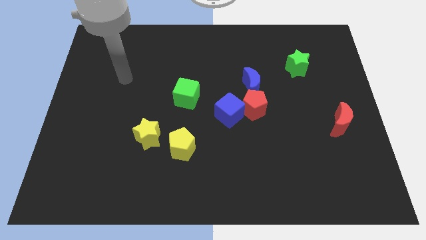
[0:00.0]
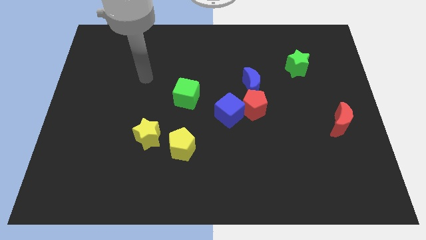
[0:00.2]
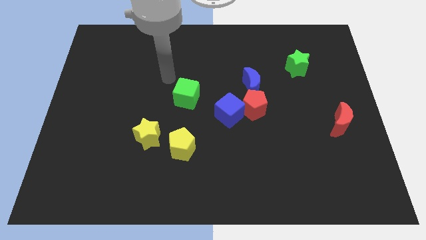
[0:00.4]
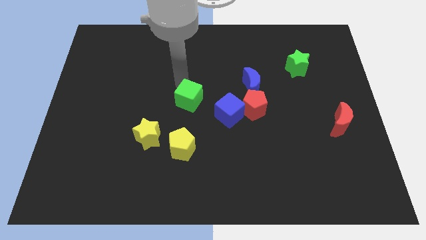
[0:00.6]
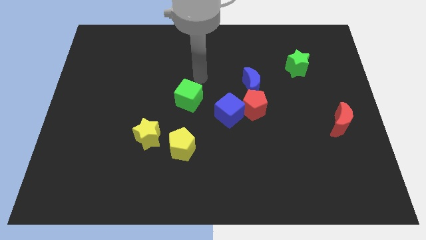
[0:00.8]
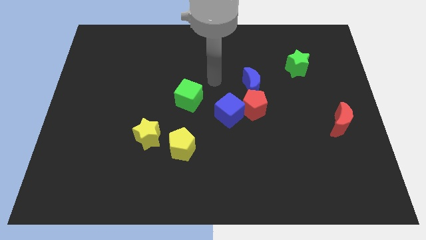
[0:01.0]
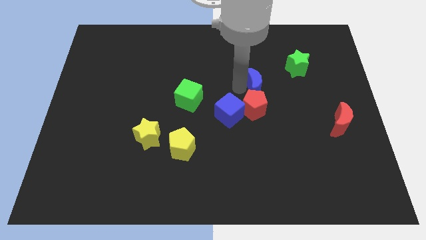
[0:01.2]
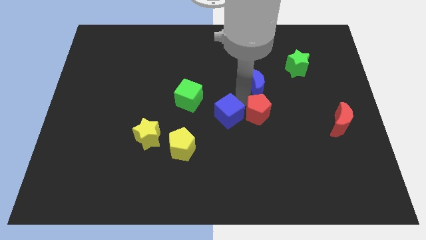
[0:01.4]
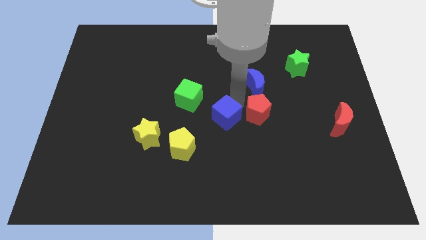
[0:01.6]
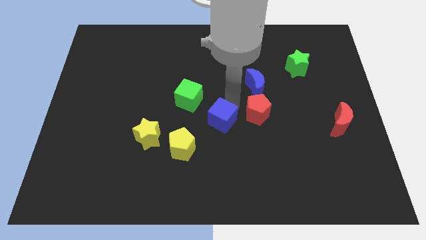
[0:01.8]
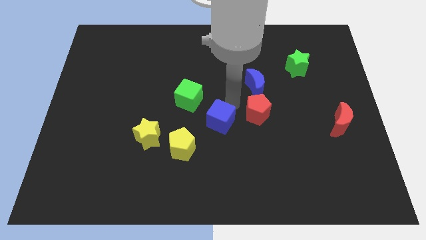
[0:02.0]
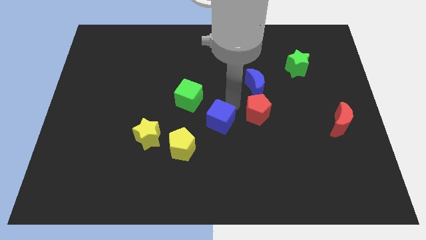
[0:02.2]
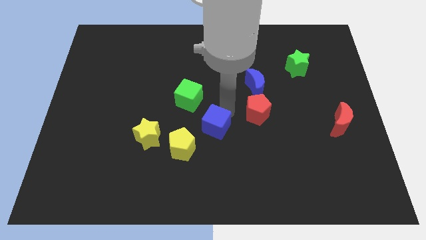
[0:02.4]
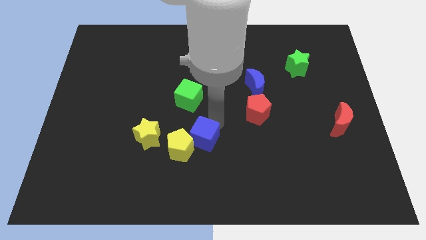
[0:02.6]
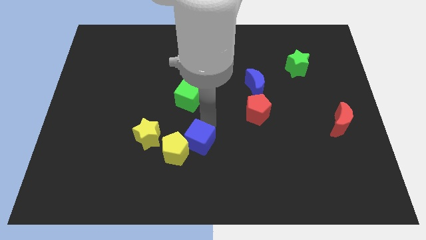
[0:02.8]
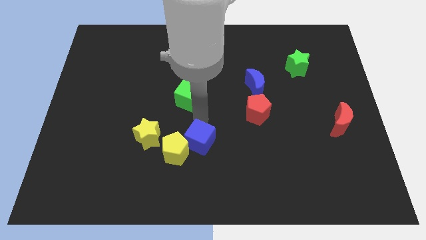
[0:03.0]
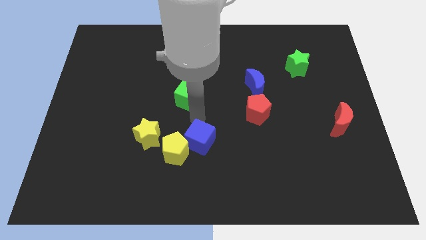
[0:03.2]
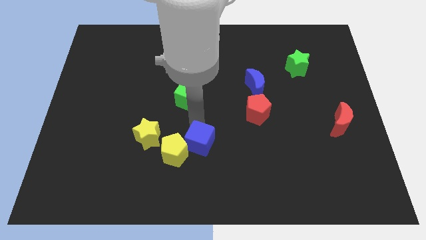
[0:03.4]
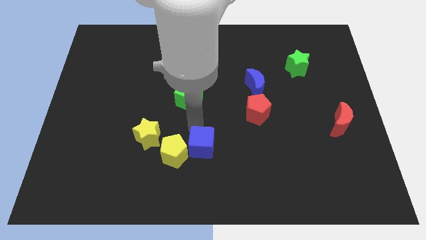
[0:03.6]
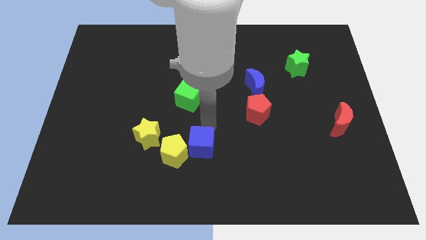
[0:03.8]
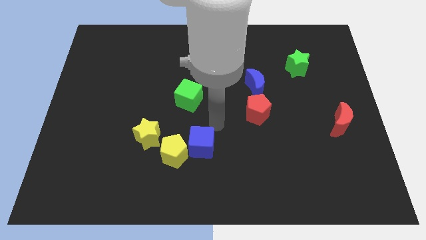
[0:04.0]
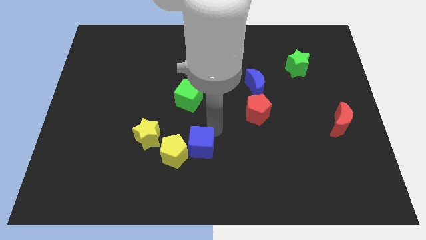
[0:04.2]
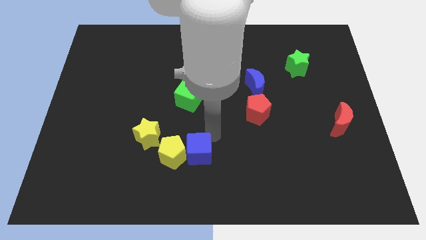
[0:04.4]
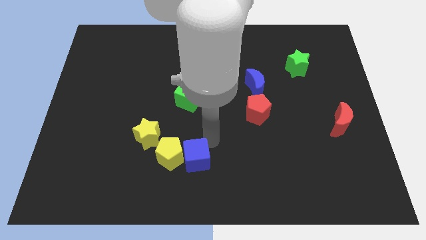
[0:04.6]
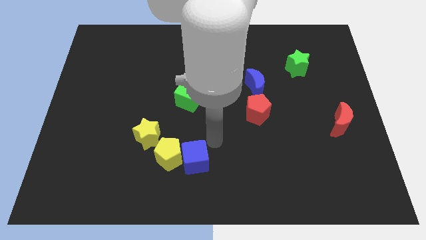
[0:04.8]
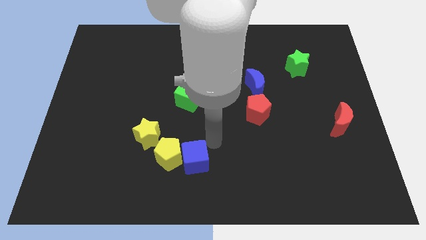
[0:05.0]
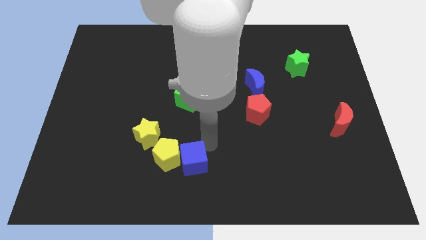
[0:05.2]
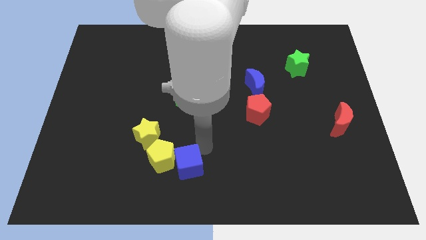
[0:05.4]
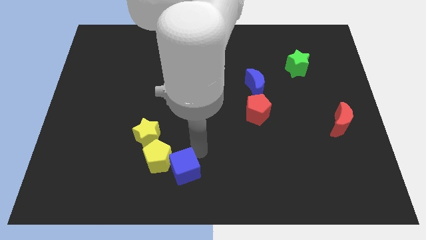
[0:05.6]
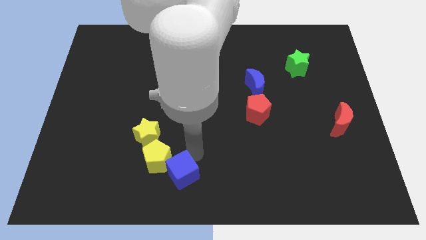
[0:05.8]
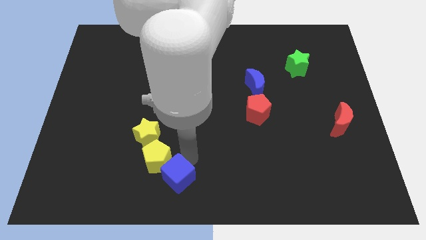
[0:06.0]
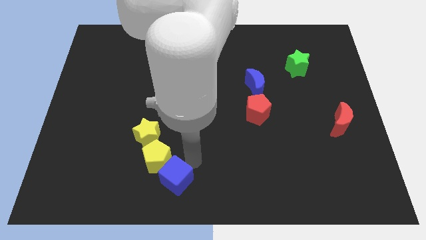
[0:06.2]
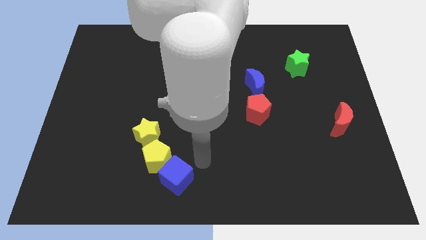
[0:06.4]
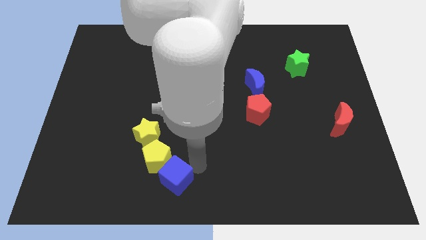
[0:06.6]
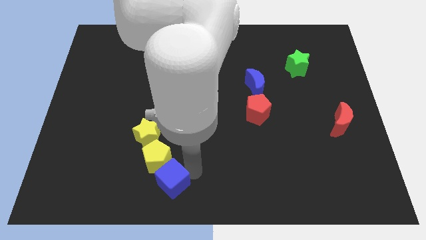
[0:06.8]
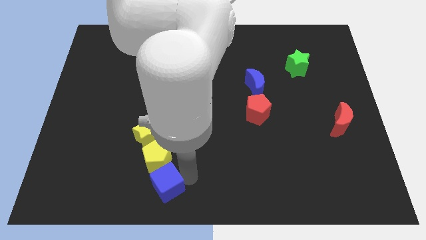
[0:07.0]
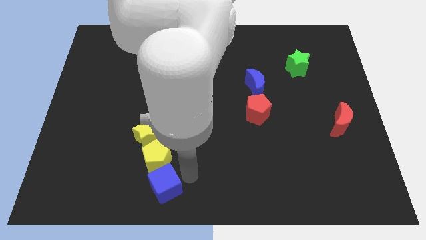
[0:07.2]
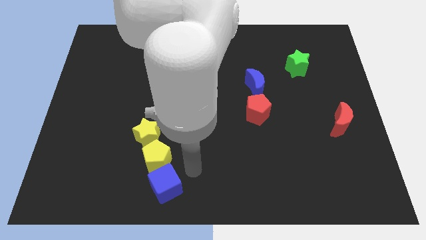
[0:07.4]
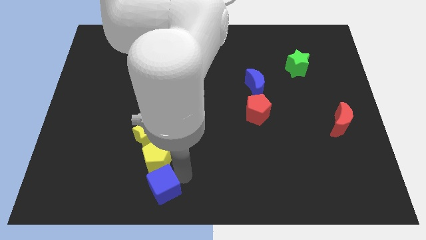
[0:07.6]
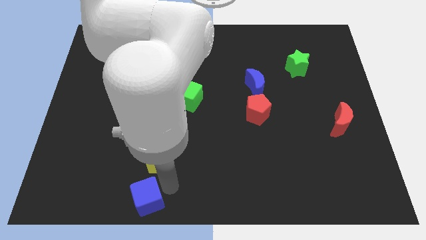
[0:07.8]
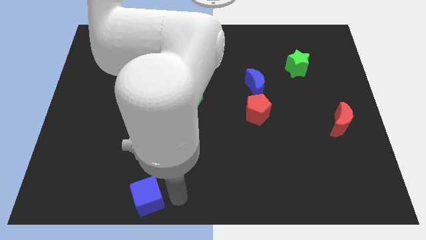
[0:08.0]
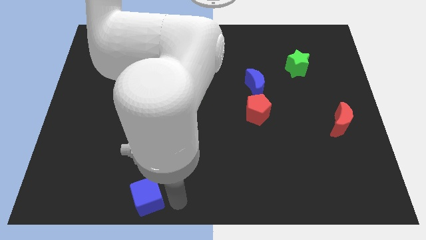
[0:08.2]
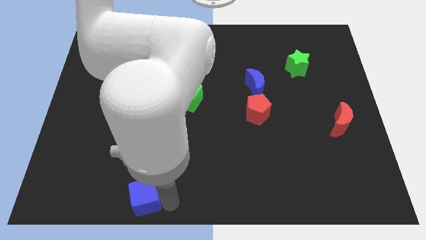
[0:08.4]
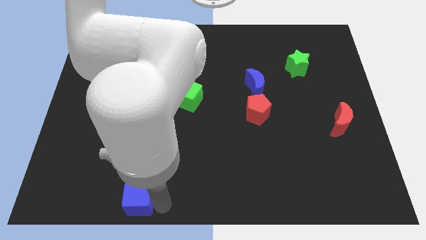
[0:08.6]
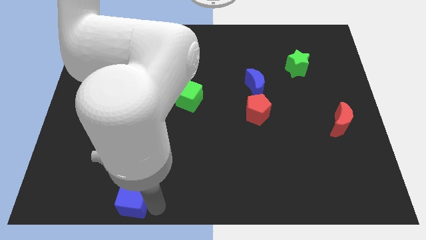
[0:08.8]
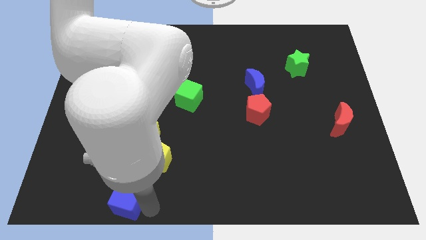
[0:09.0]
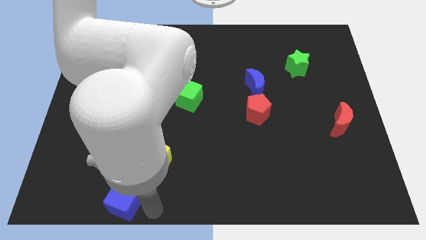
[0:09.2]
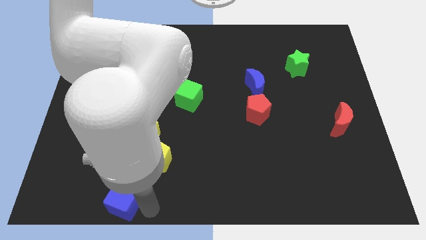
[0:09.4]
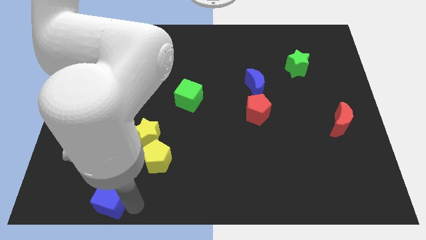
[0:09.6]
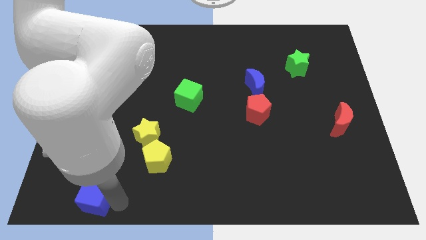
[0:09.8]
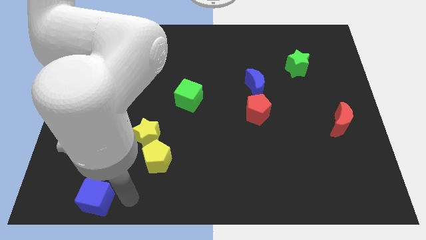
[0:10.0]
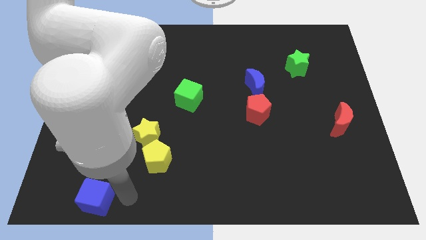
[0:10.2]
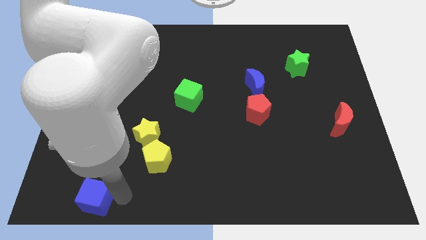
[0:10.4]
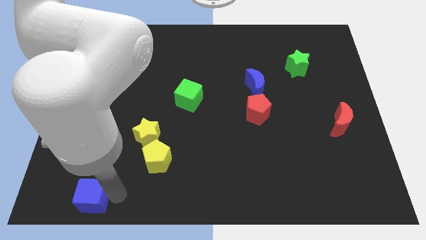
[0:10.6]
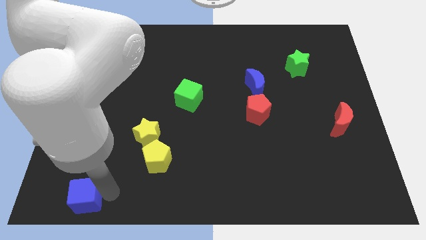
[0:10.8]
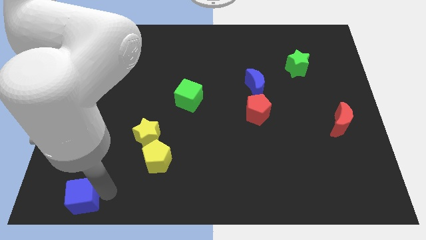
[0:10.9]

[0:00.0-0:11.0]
put the blue cube to the bottom left
